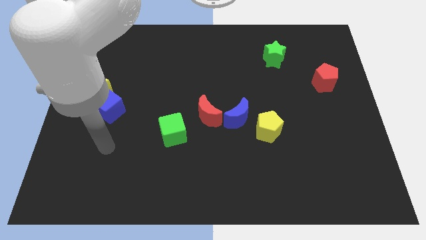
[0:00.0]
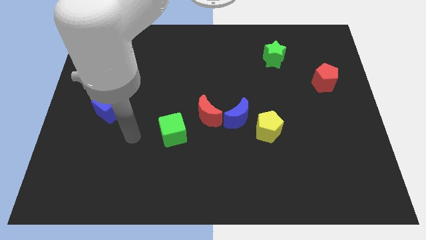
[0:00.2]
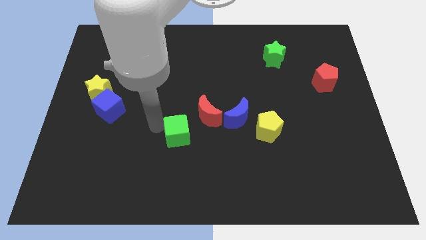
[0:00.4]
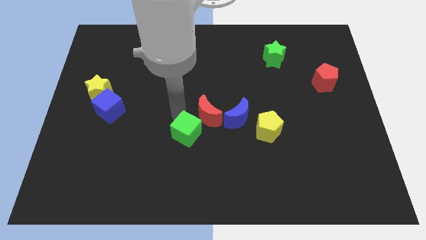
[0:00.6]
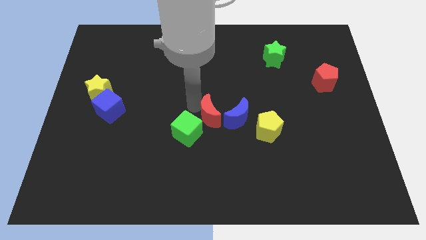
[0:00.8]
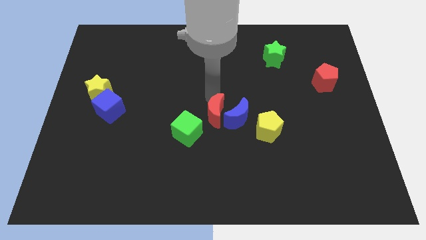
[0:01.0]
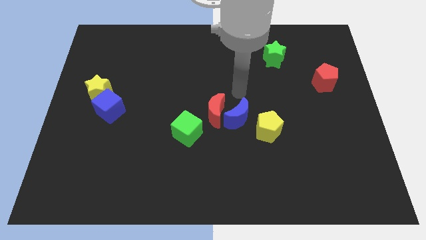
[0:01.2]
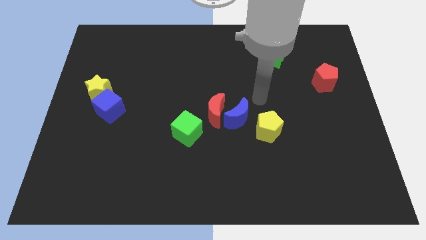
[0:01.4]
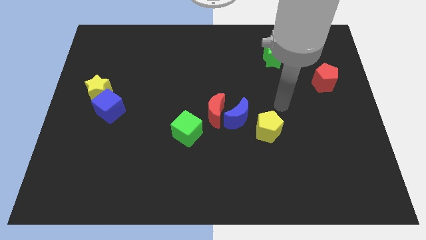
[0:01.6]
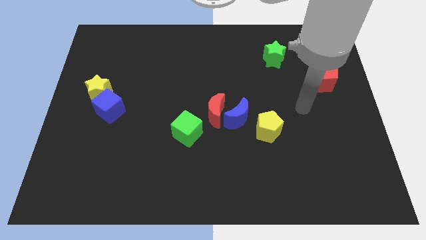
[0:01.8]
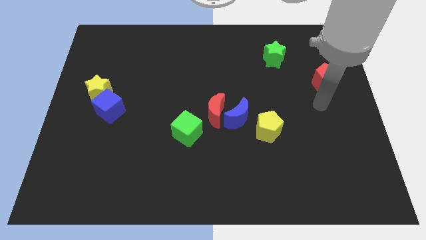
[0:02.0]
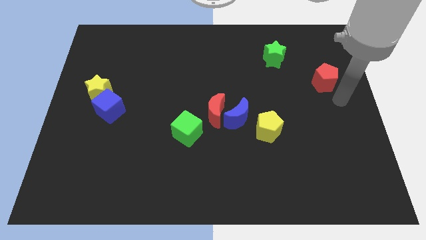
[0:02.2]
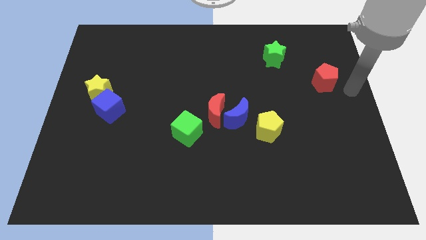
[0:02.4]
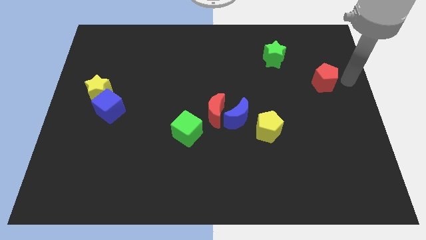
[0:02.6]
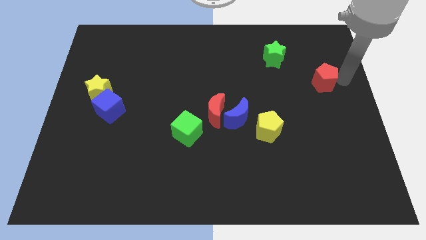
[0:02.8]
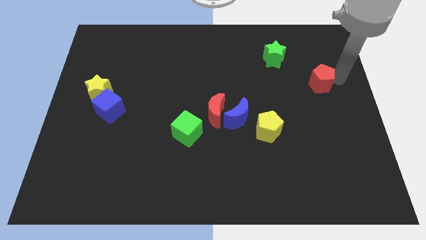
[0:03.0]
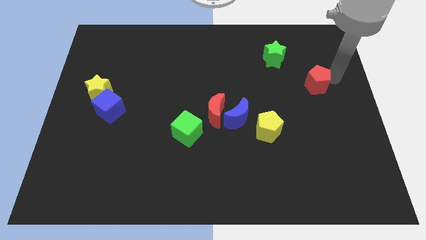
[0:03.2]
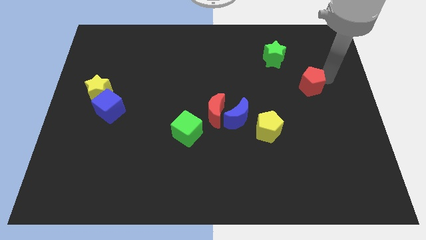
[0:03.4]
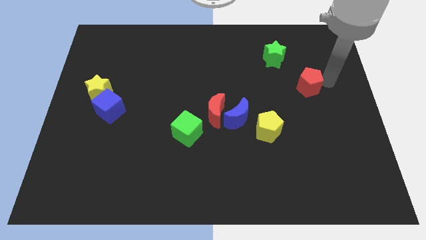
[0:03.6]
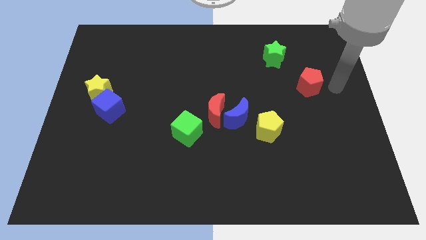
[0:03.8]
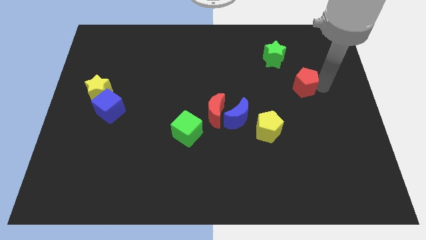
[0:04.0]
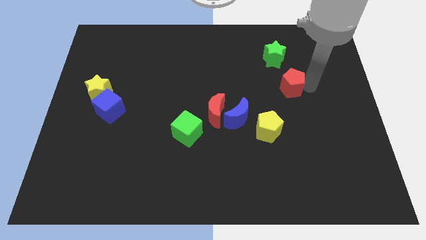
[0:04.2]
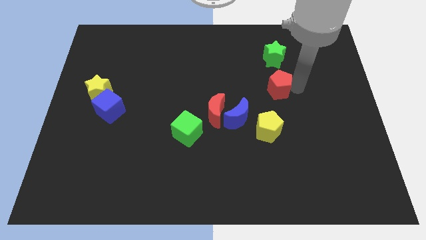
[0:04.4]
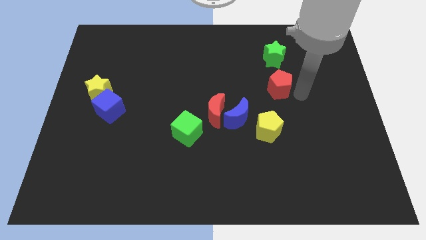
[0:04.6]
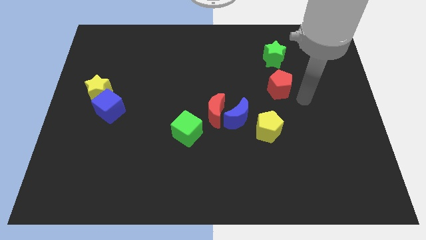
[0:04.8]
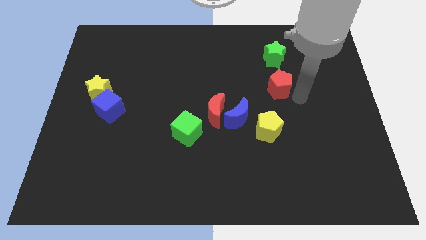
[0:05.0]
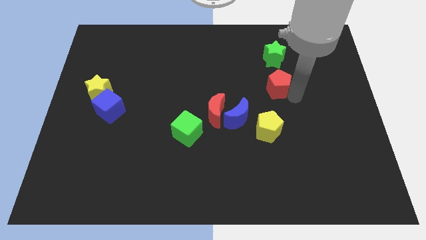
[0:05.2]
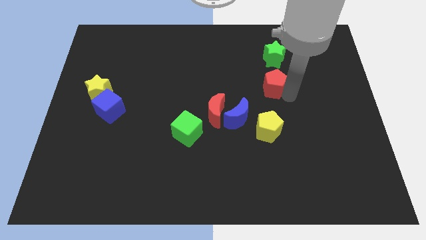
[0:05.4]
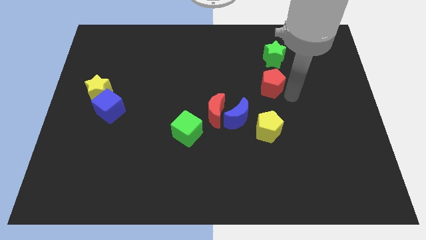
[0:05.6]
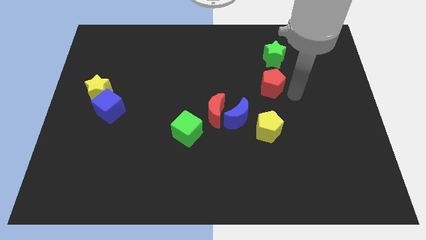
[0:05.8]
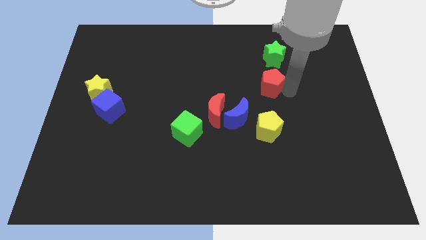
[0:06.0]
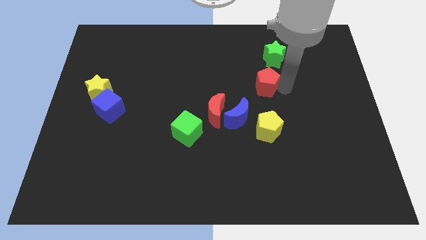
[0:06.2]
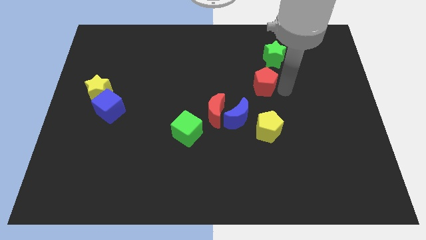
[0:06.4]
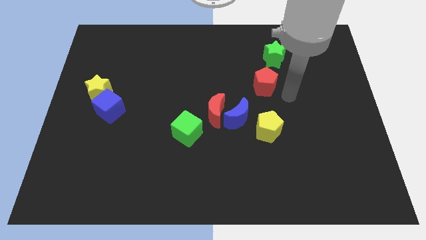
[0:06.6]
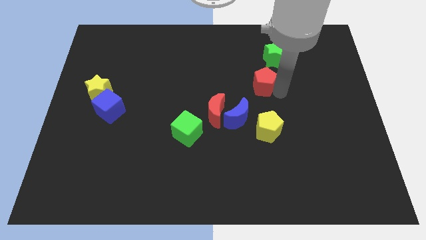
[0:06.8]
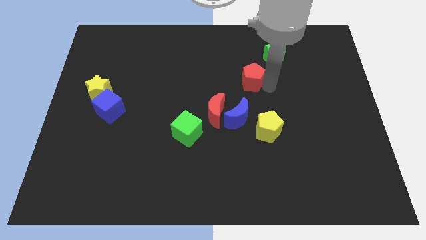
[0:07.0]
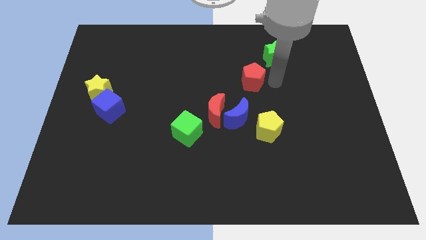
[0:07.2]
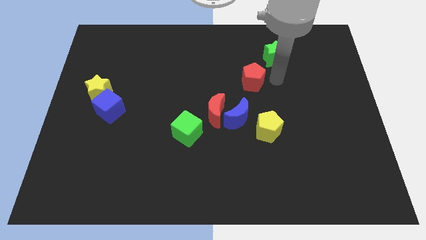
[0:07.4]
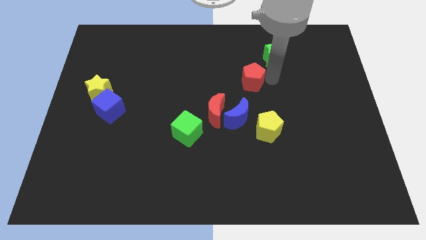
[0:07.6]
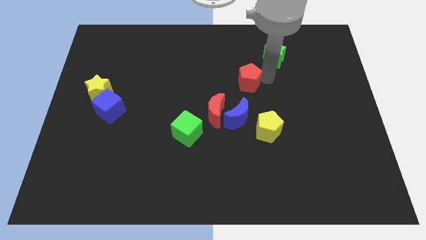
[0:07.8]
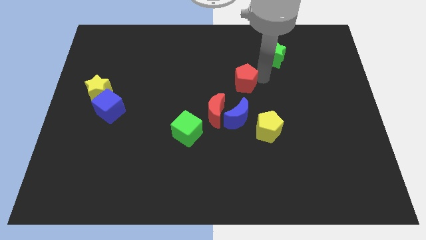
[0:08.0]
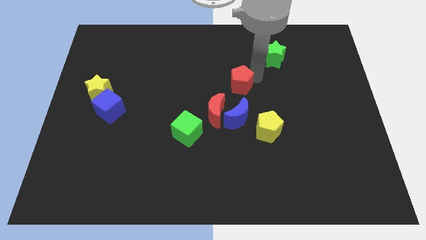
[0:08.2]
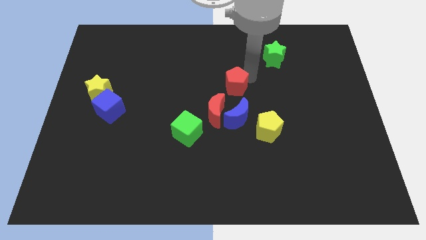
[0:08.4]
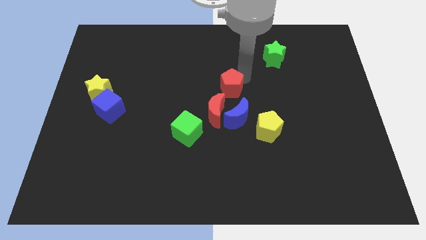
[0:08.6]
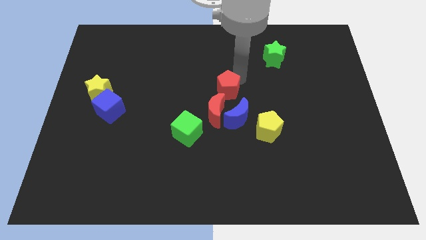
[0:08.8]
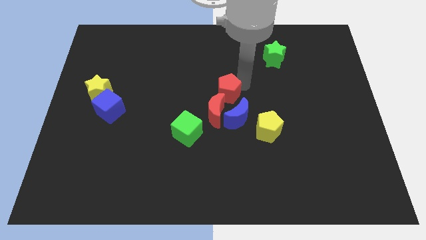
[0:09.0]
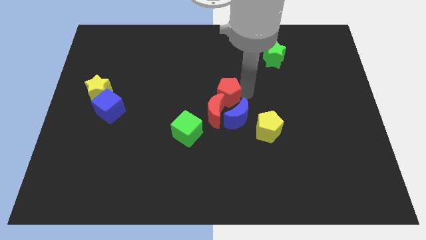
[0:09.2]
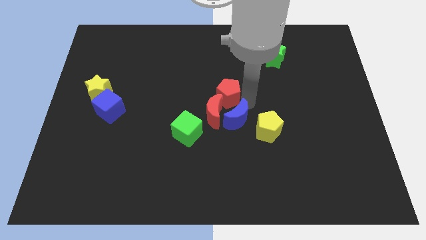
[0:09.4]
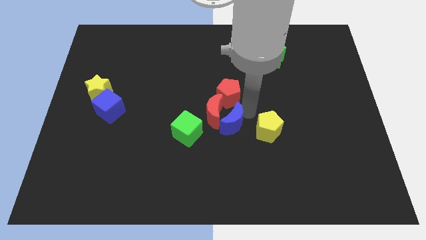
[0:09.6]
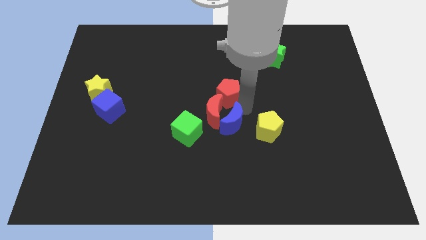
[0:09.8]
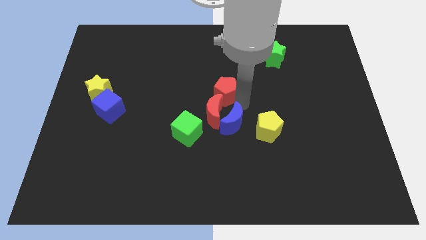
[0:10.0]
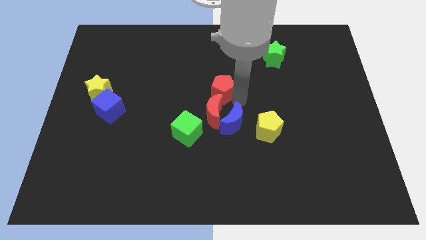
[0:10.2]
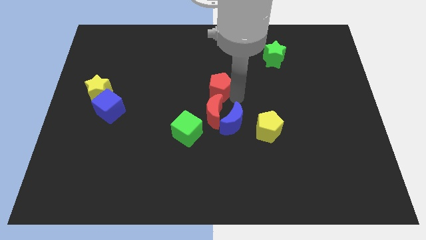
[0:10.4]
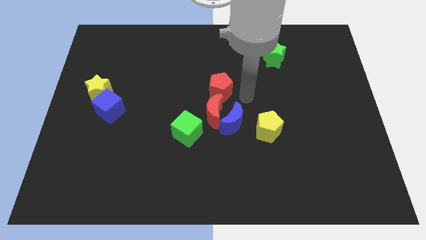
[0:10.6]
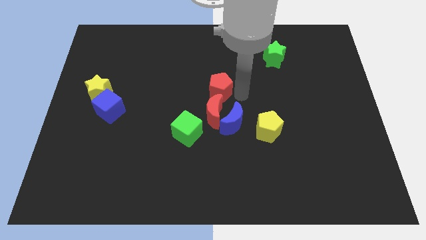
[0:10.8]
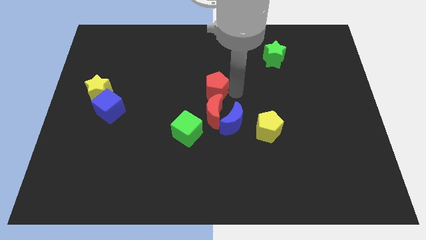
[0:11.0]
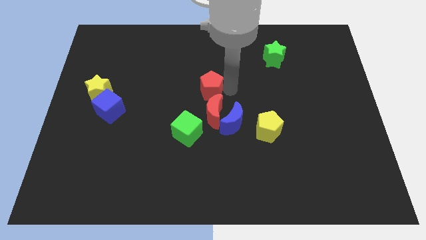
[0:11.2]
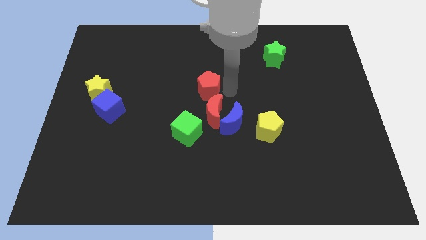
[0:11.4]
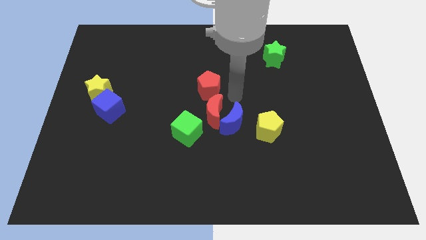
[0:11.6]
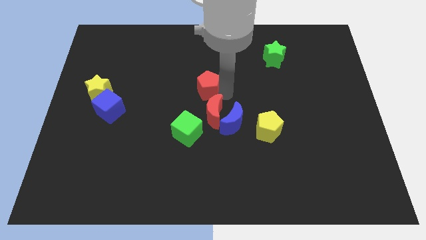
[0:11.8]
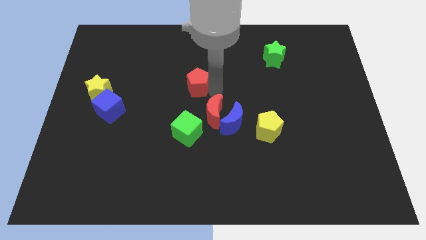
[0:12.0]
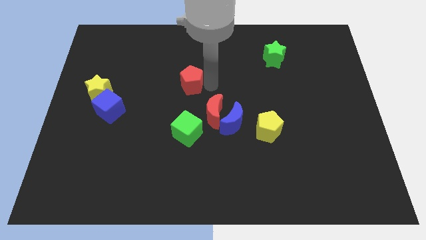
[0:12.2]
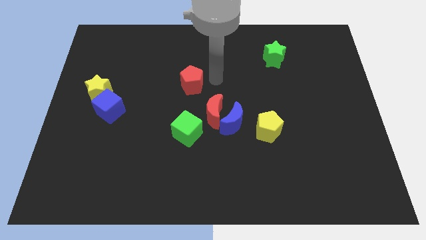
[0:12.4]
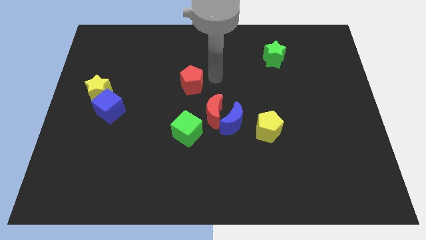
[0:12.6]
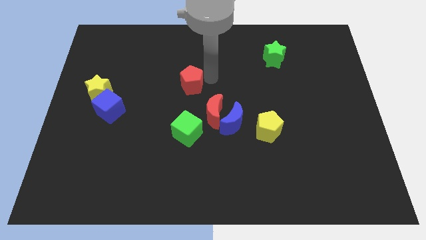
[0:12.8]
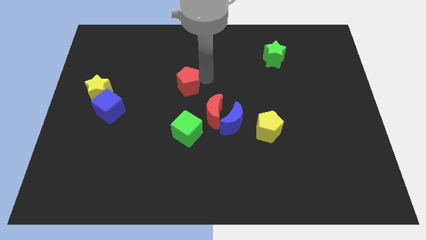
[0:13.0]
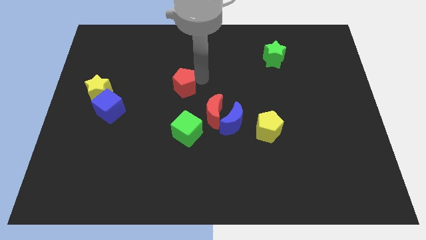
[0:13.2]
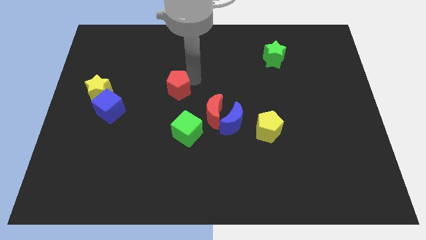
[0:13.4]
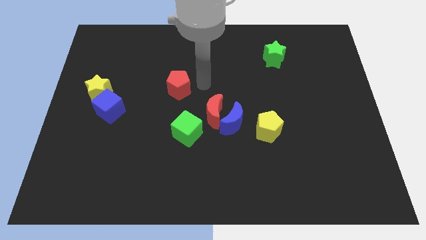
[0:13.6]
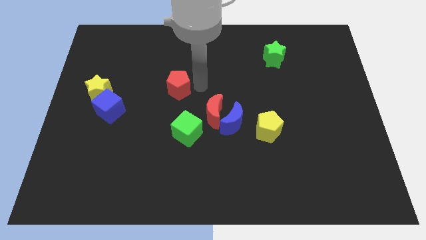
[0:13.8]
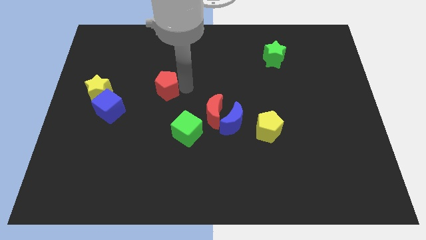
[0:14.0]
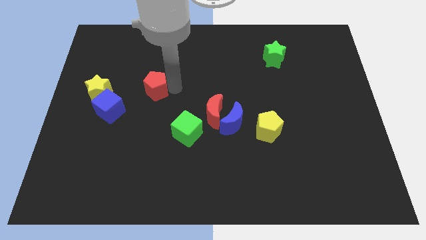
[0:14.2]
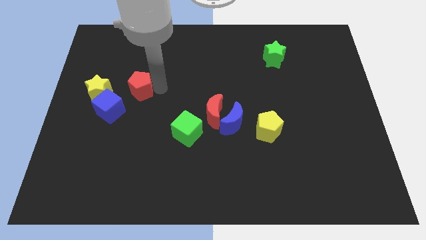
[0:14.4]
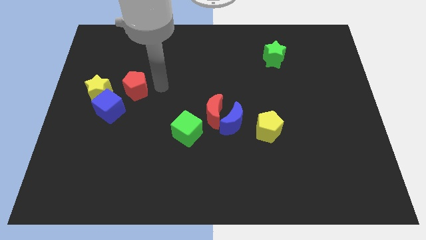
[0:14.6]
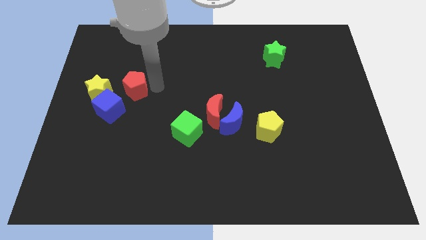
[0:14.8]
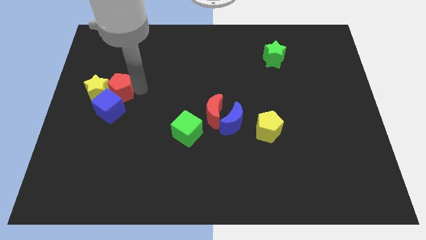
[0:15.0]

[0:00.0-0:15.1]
push the red pentagon towards the yellow star
